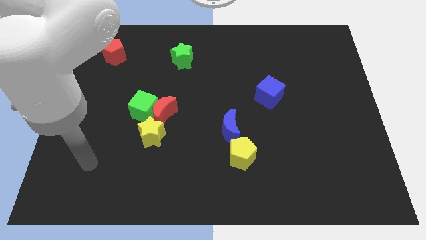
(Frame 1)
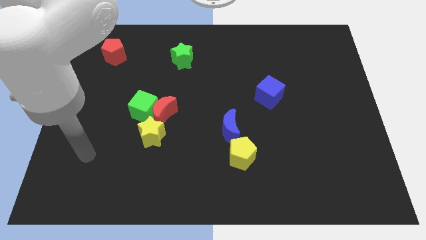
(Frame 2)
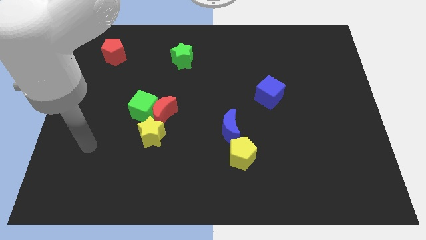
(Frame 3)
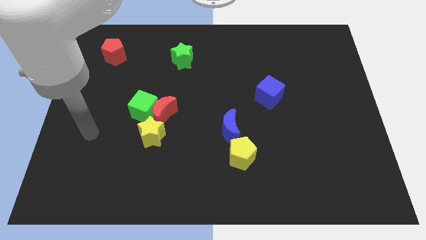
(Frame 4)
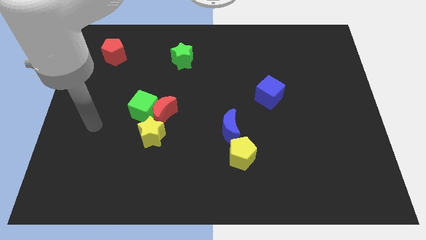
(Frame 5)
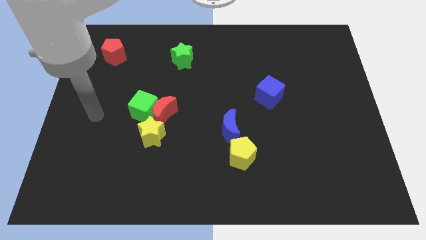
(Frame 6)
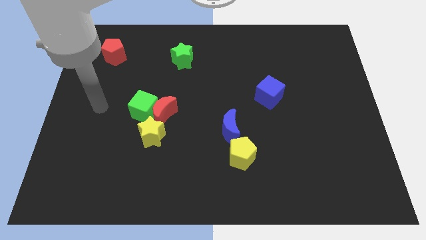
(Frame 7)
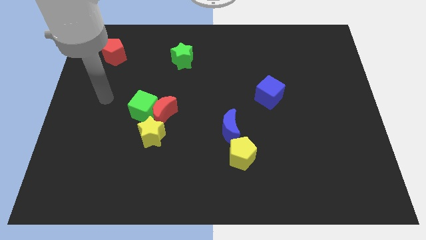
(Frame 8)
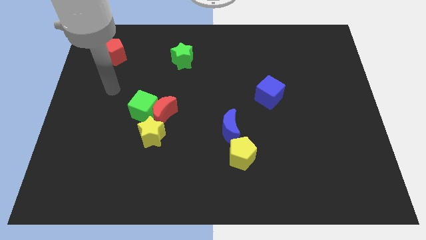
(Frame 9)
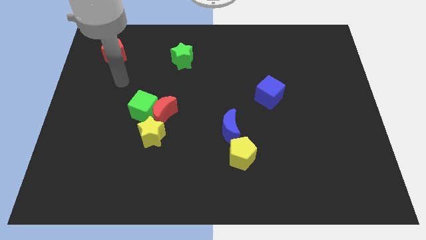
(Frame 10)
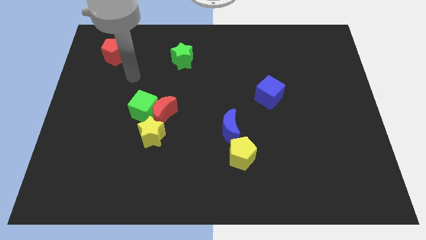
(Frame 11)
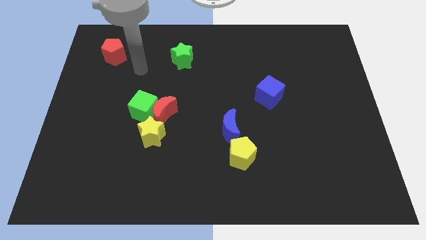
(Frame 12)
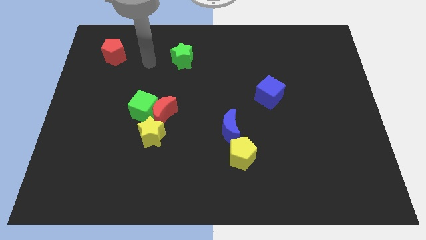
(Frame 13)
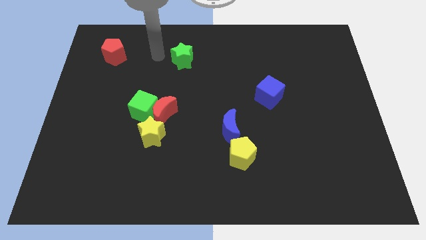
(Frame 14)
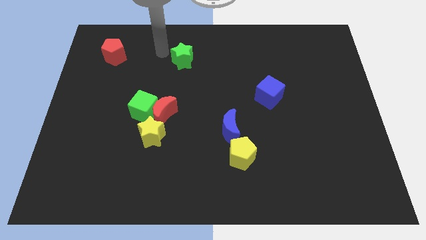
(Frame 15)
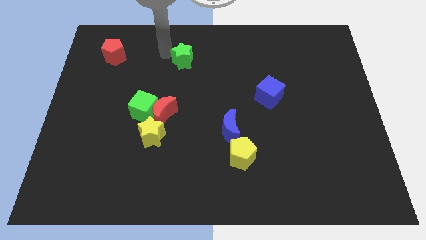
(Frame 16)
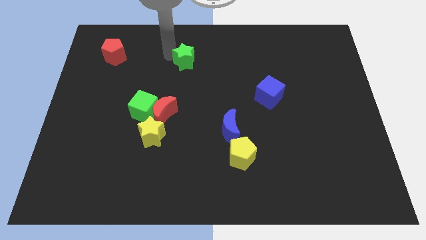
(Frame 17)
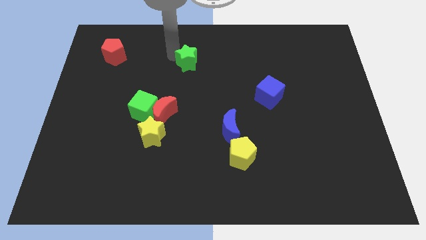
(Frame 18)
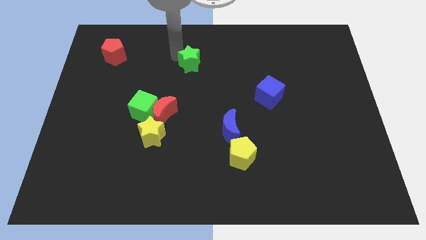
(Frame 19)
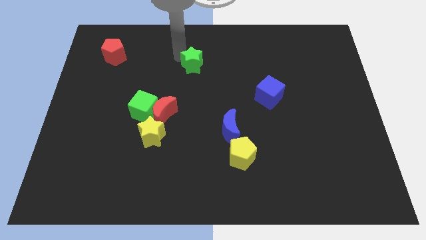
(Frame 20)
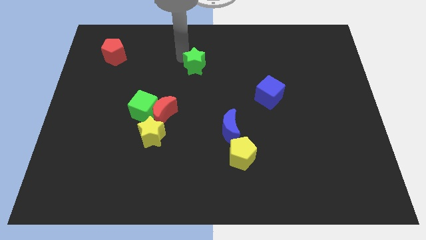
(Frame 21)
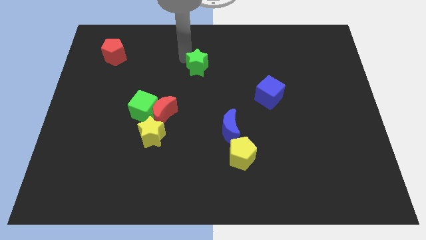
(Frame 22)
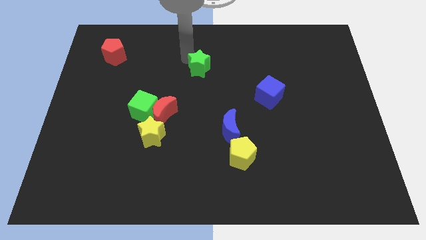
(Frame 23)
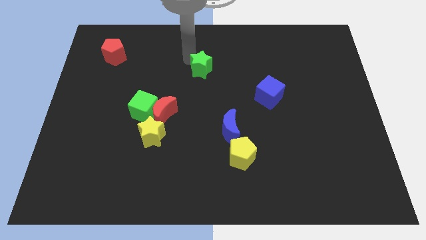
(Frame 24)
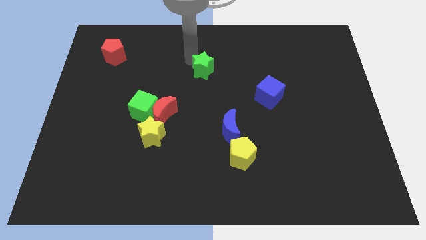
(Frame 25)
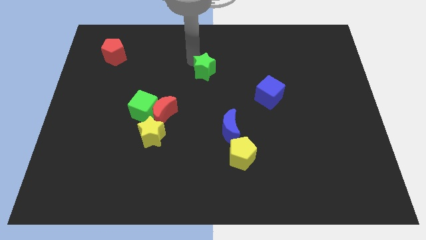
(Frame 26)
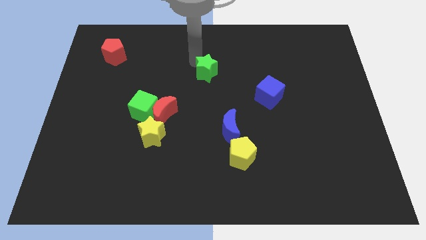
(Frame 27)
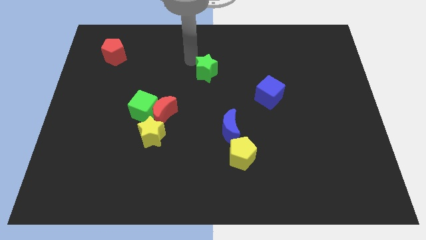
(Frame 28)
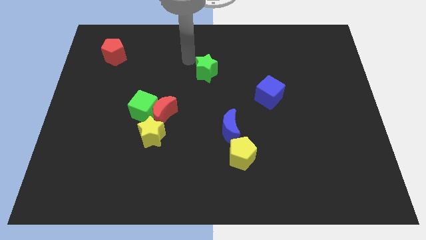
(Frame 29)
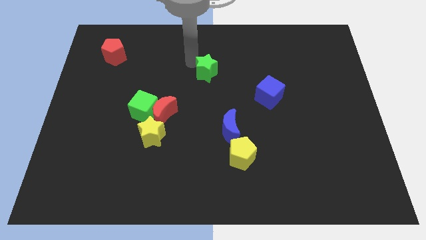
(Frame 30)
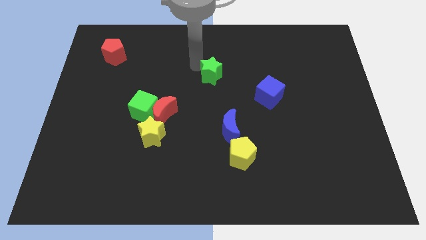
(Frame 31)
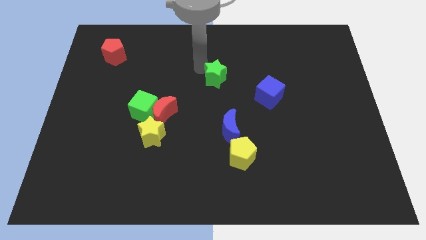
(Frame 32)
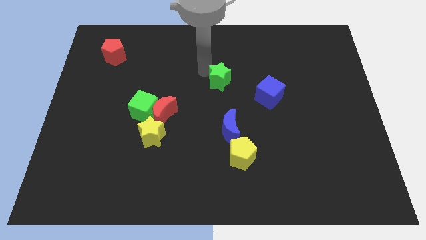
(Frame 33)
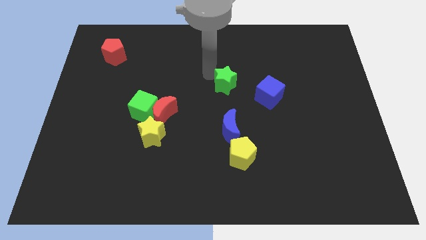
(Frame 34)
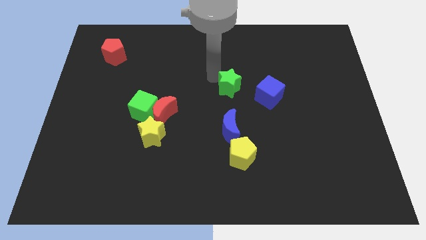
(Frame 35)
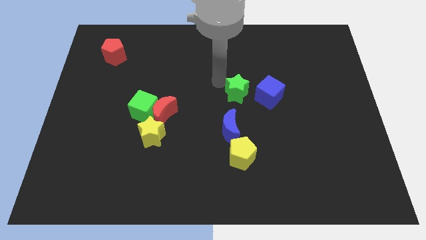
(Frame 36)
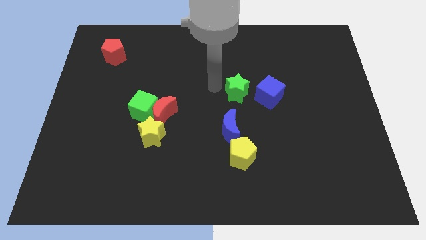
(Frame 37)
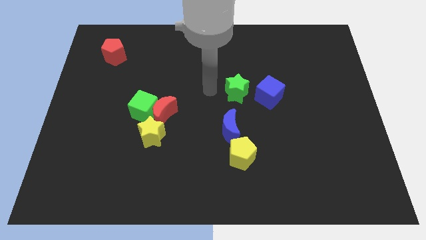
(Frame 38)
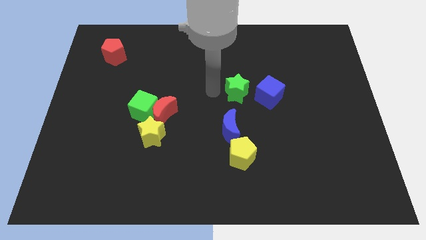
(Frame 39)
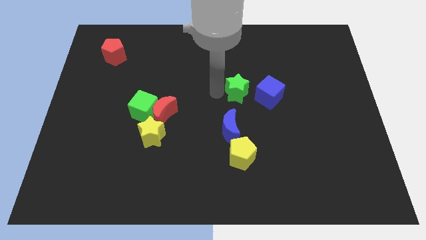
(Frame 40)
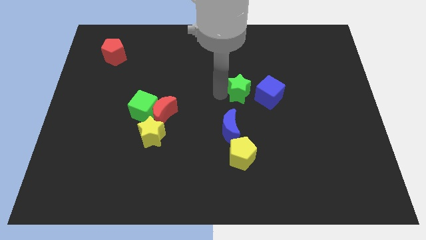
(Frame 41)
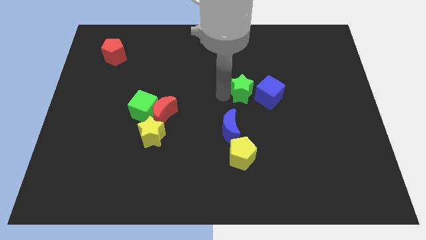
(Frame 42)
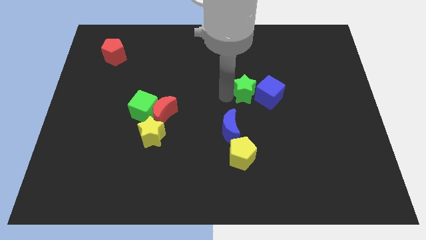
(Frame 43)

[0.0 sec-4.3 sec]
slide the green star towards the blue cube

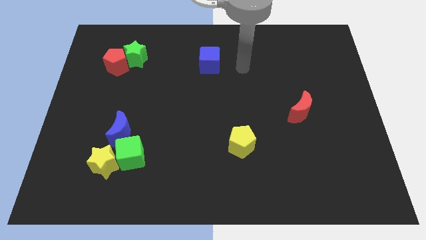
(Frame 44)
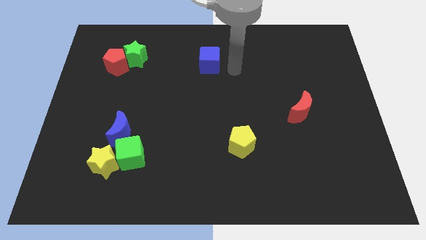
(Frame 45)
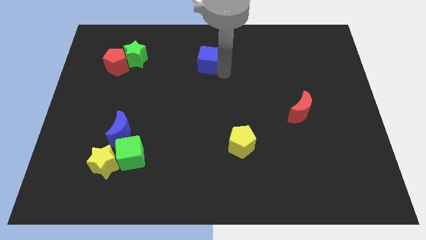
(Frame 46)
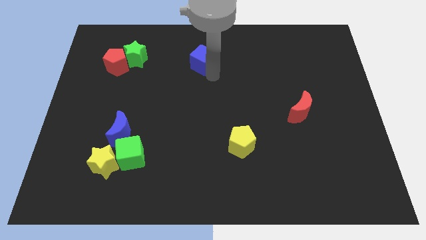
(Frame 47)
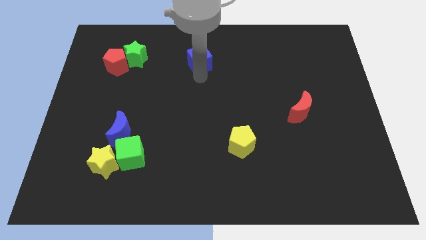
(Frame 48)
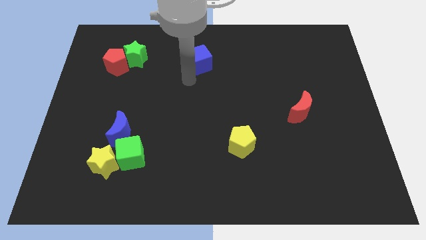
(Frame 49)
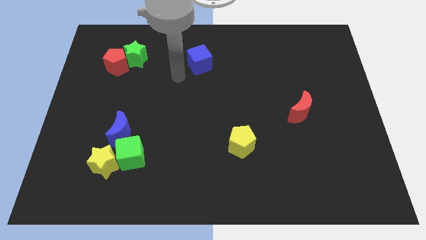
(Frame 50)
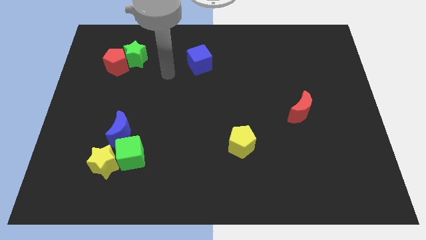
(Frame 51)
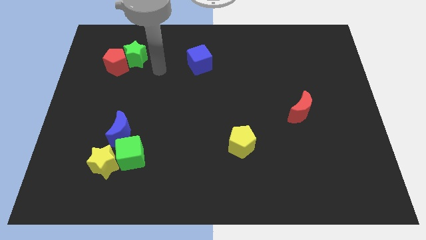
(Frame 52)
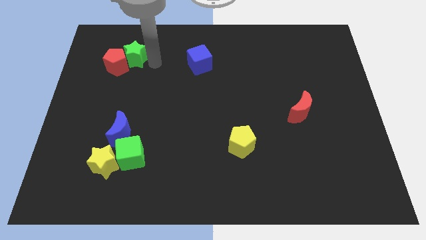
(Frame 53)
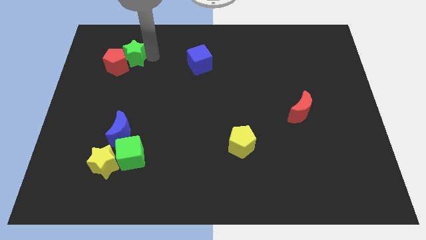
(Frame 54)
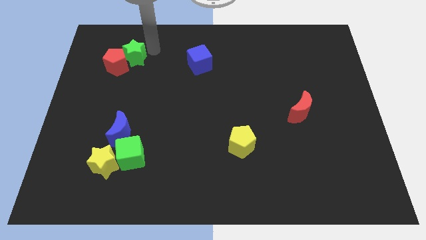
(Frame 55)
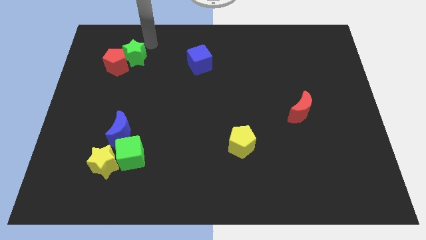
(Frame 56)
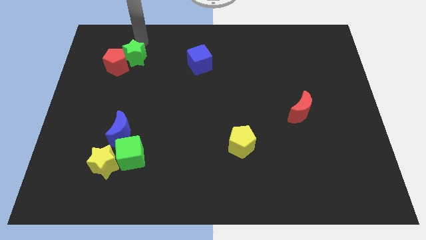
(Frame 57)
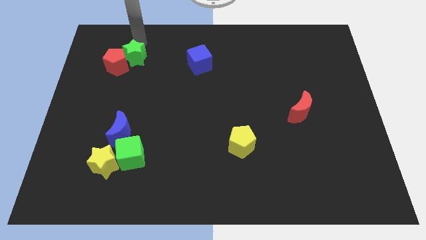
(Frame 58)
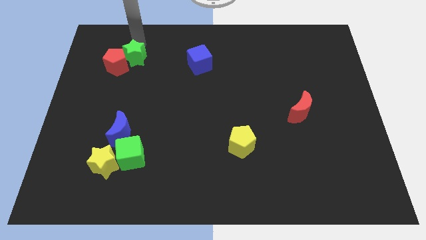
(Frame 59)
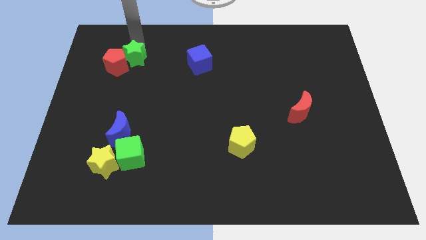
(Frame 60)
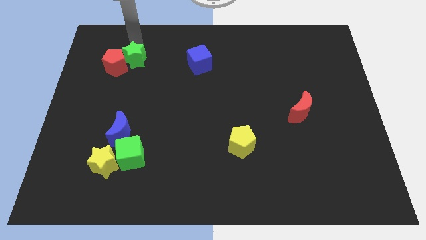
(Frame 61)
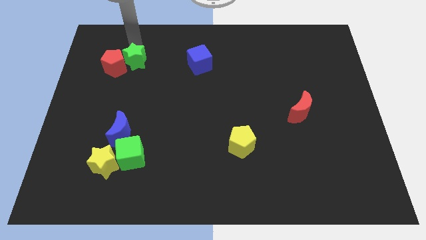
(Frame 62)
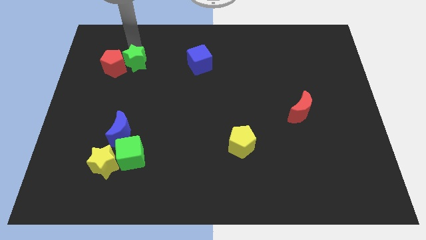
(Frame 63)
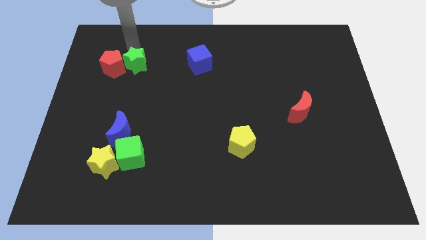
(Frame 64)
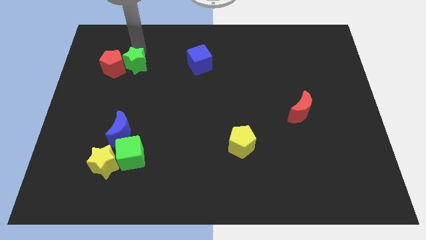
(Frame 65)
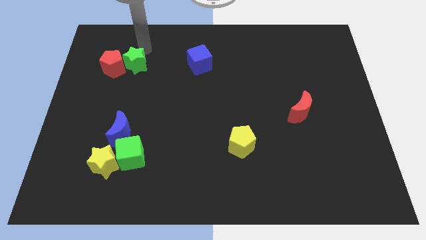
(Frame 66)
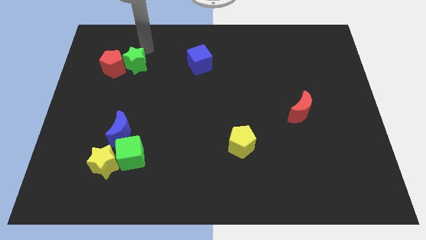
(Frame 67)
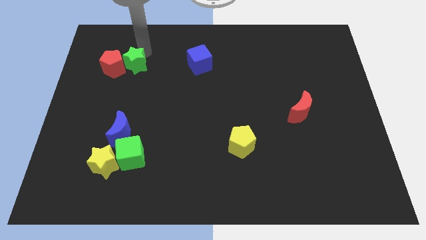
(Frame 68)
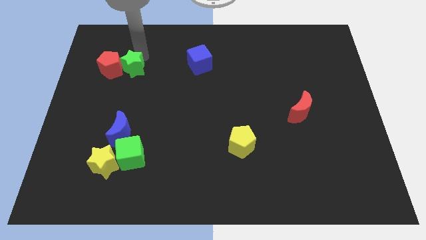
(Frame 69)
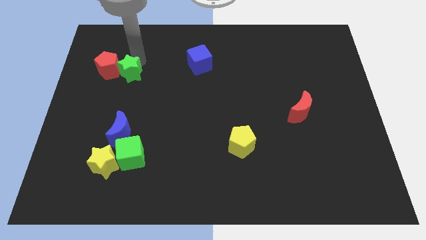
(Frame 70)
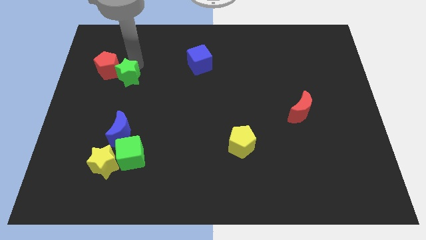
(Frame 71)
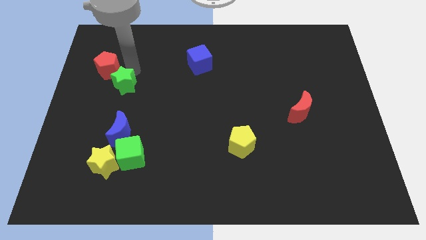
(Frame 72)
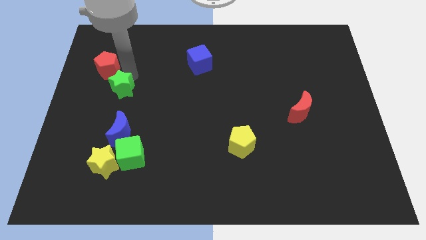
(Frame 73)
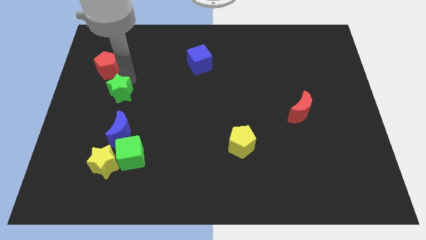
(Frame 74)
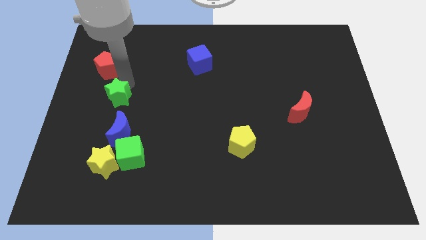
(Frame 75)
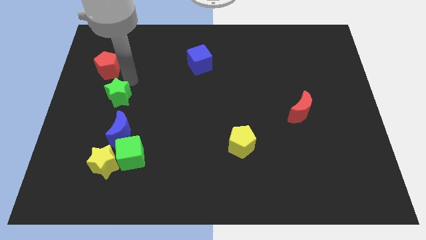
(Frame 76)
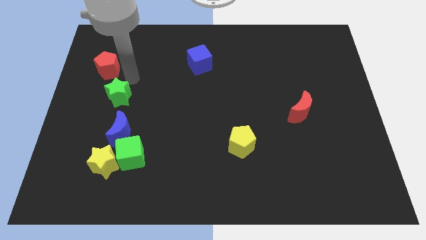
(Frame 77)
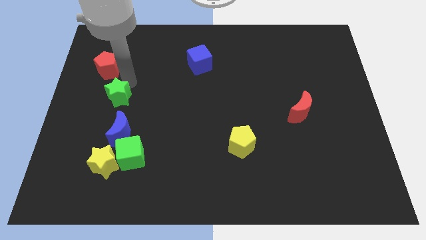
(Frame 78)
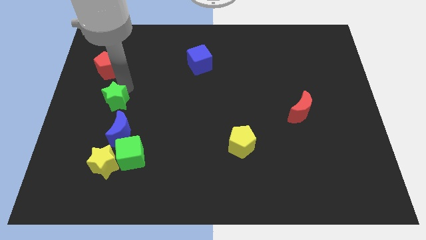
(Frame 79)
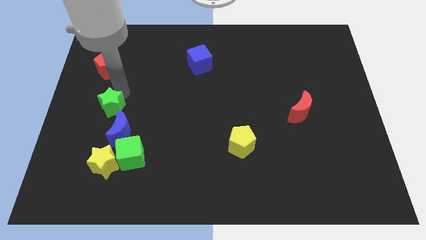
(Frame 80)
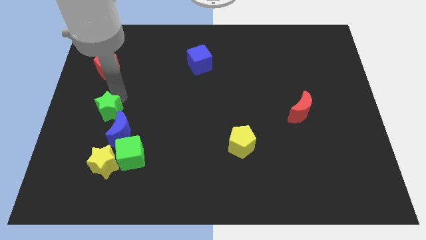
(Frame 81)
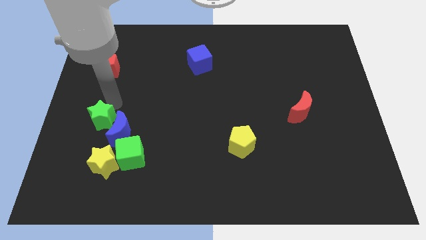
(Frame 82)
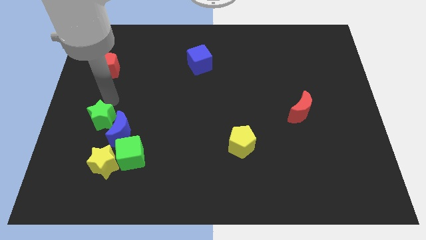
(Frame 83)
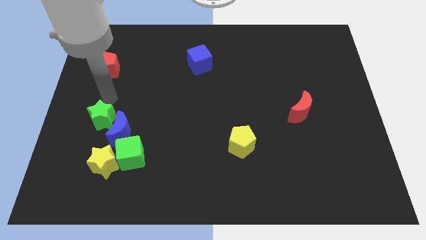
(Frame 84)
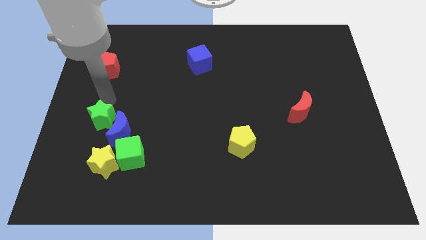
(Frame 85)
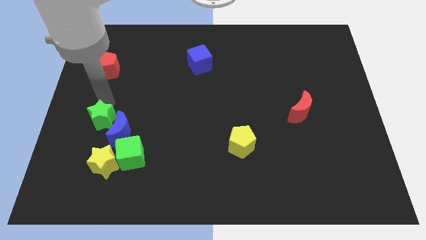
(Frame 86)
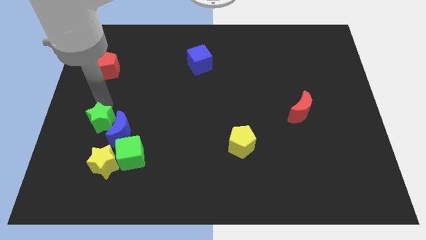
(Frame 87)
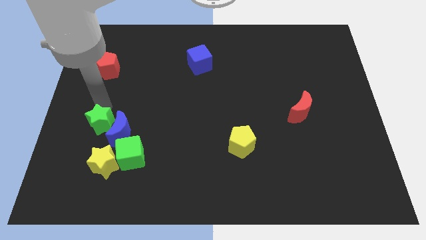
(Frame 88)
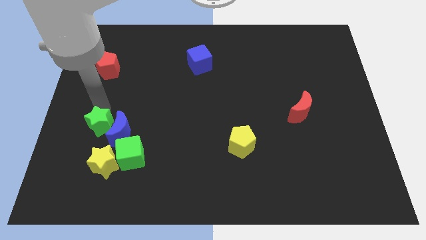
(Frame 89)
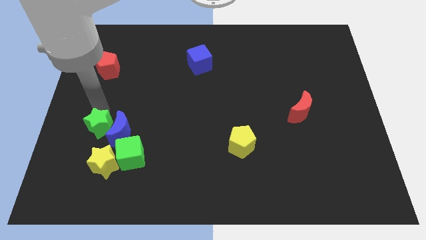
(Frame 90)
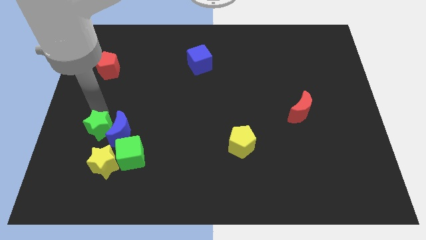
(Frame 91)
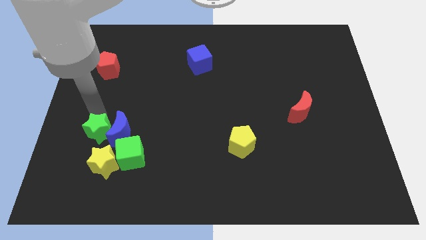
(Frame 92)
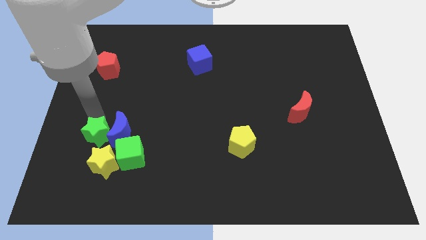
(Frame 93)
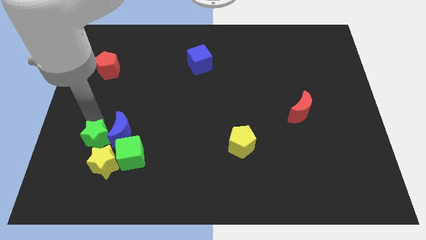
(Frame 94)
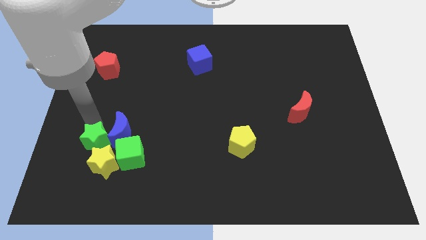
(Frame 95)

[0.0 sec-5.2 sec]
slide the green star to the yellow star
